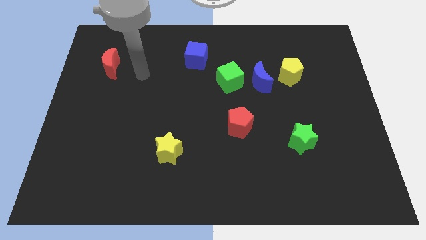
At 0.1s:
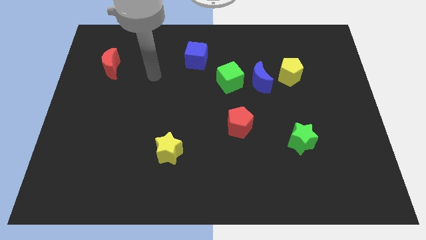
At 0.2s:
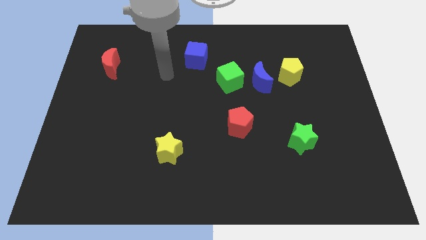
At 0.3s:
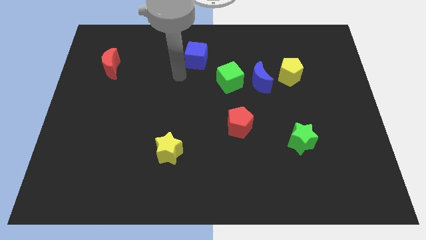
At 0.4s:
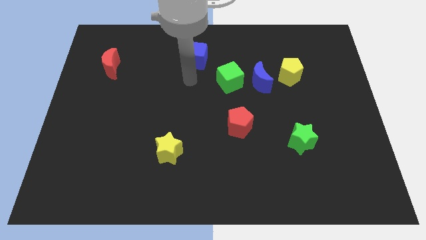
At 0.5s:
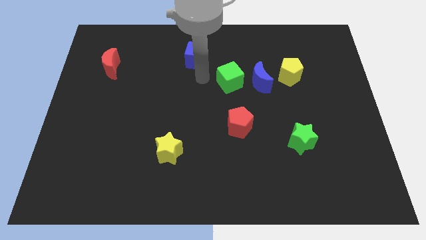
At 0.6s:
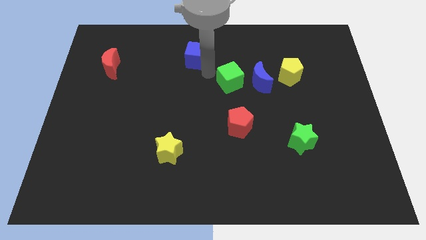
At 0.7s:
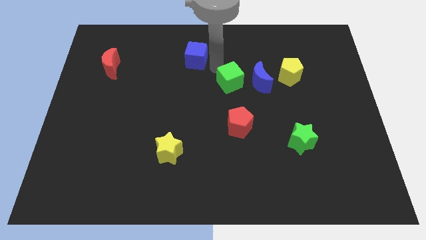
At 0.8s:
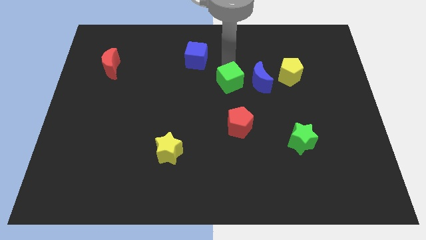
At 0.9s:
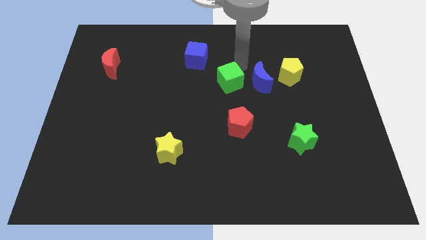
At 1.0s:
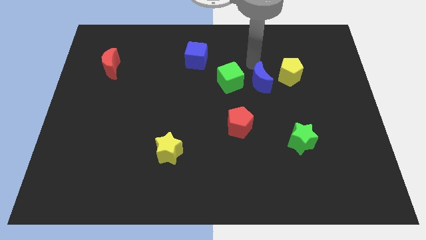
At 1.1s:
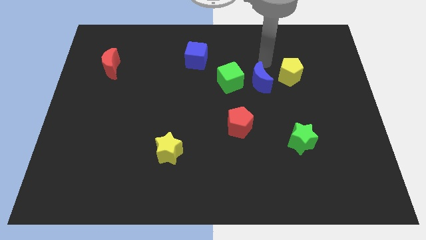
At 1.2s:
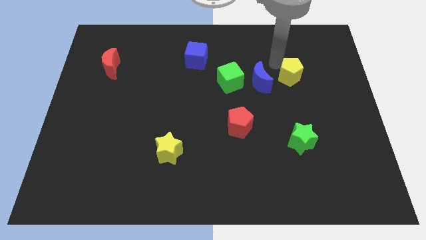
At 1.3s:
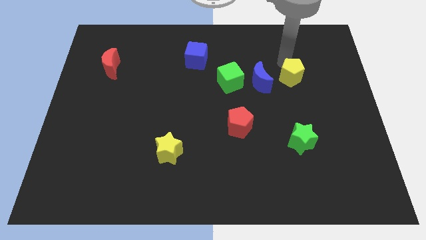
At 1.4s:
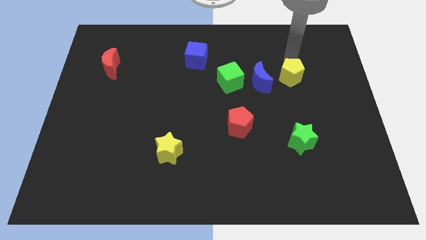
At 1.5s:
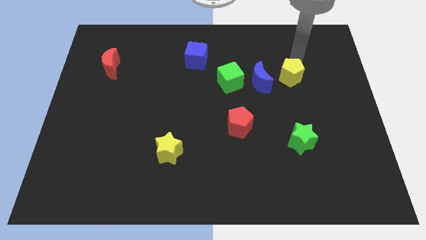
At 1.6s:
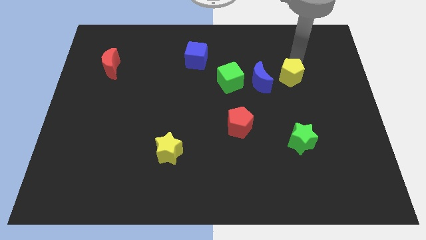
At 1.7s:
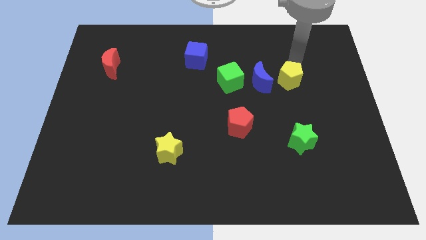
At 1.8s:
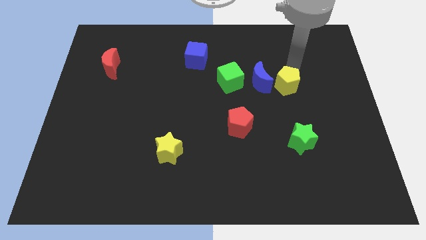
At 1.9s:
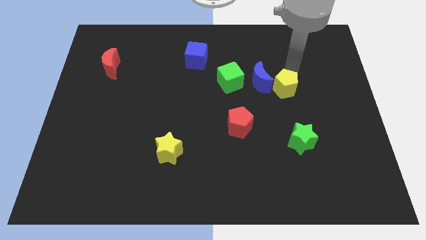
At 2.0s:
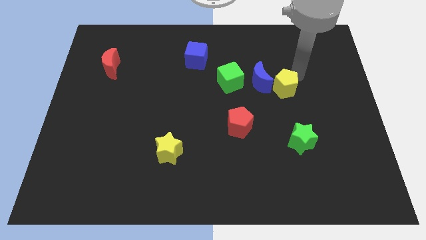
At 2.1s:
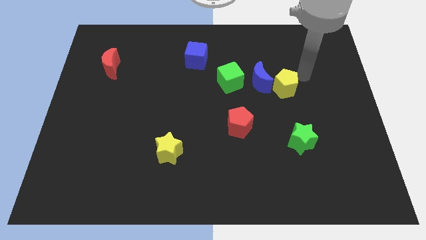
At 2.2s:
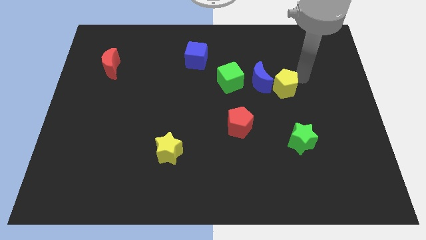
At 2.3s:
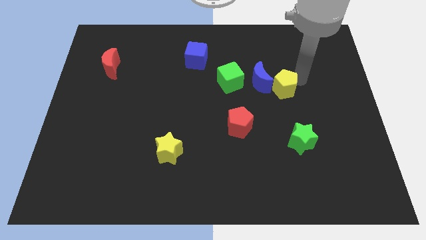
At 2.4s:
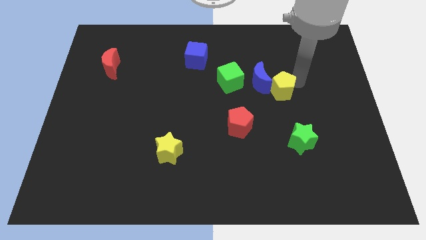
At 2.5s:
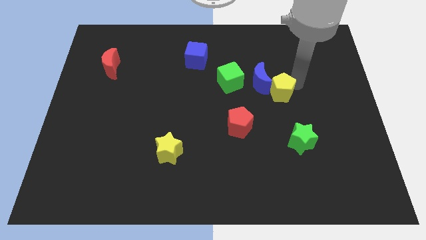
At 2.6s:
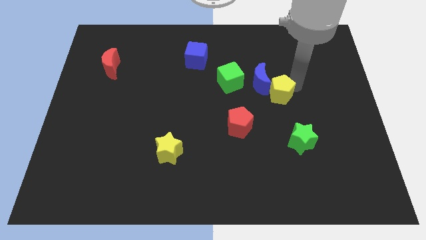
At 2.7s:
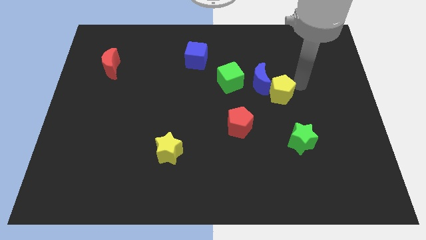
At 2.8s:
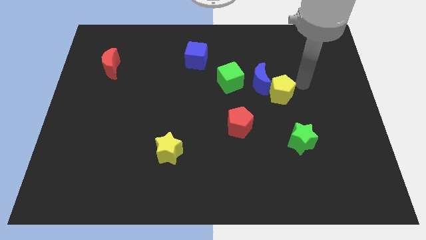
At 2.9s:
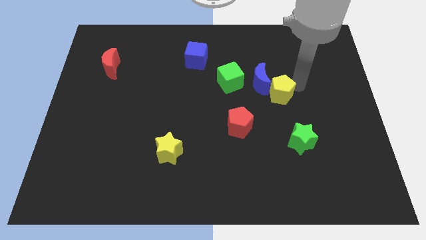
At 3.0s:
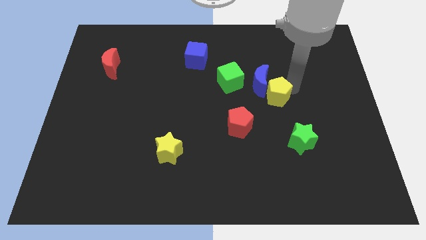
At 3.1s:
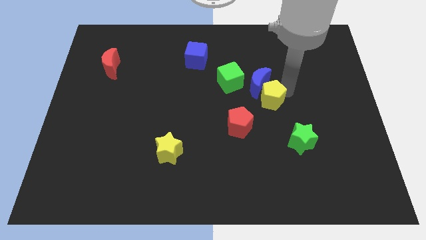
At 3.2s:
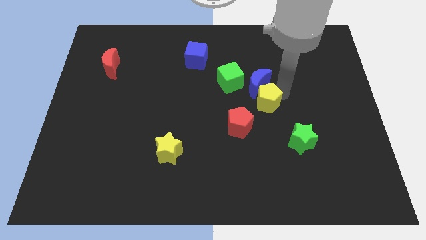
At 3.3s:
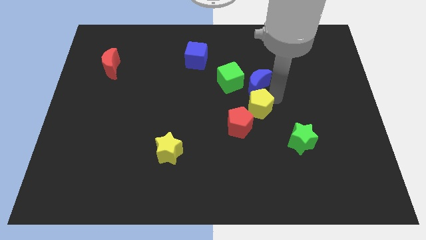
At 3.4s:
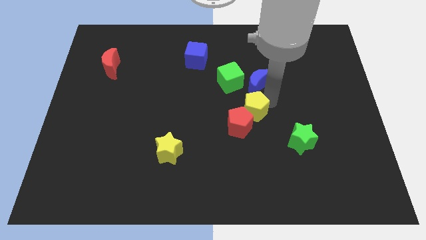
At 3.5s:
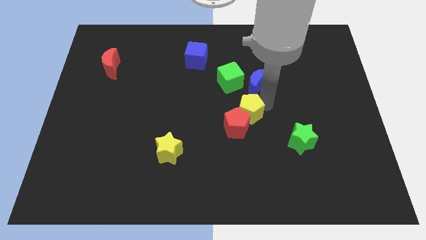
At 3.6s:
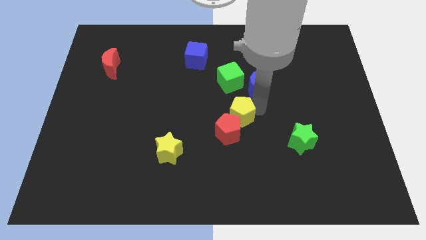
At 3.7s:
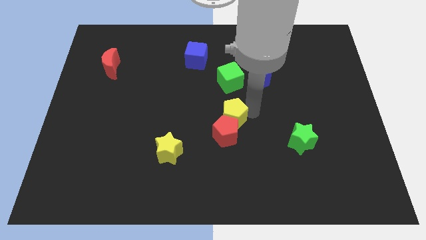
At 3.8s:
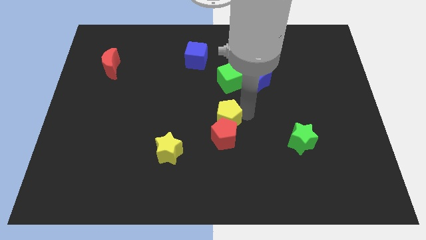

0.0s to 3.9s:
move the yellow pentagon down and then left

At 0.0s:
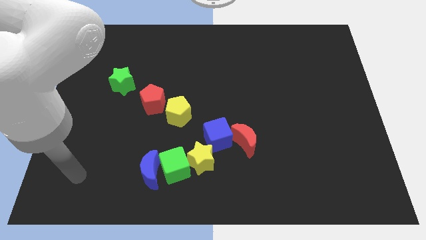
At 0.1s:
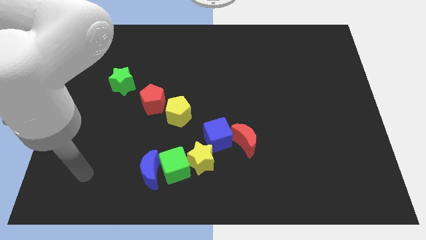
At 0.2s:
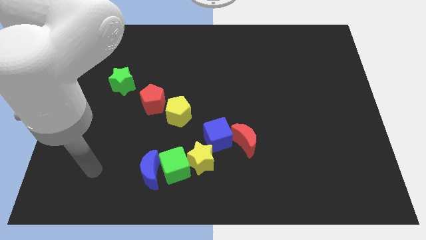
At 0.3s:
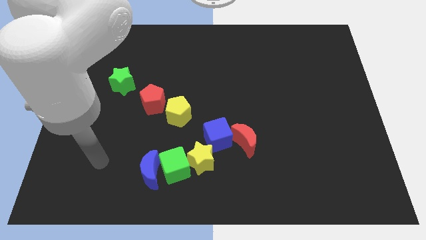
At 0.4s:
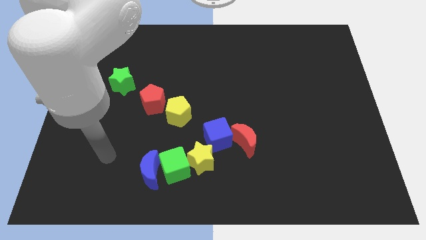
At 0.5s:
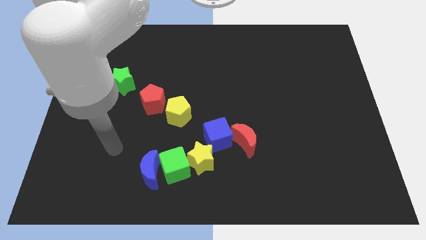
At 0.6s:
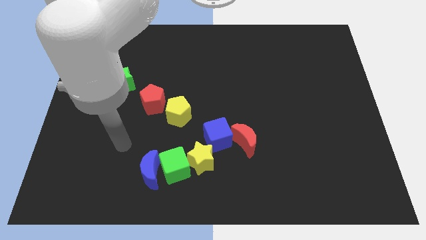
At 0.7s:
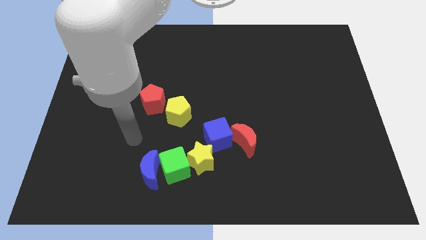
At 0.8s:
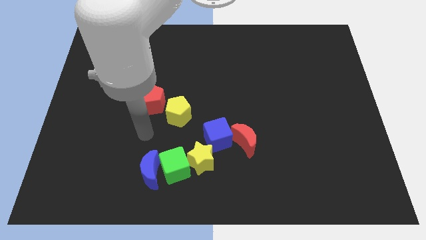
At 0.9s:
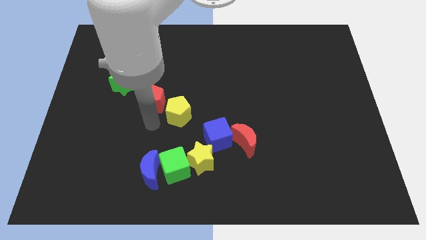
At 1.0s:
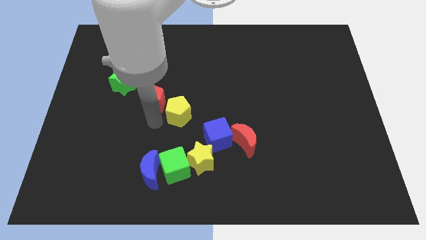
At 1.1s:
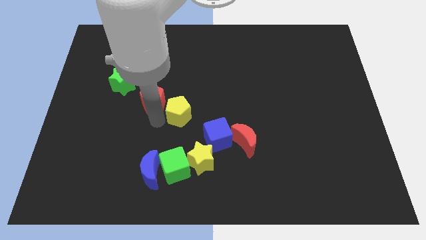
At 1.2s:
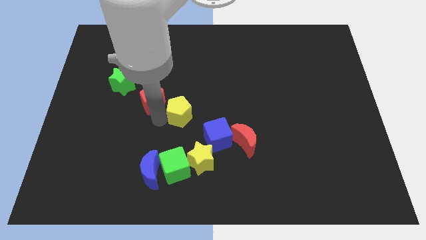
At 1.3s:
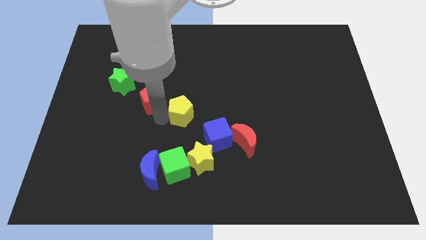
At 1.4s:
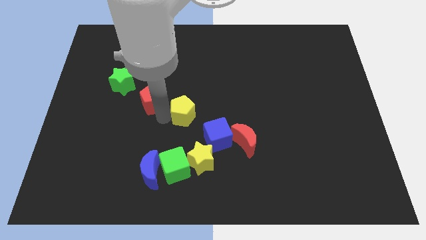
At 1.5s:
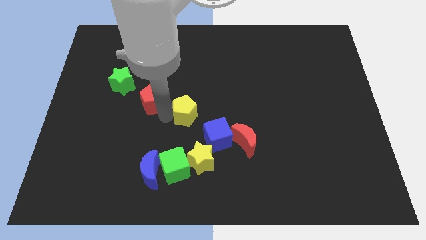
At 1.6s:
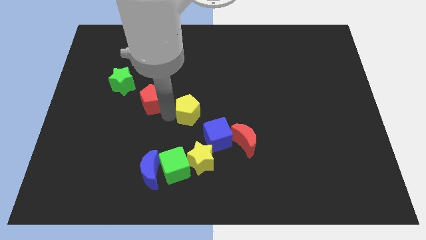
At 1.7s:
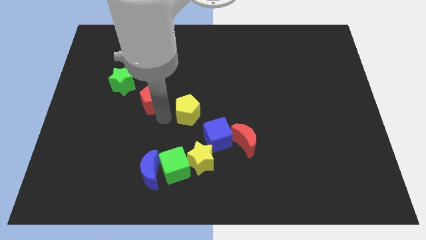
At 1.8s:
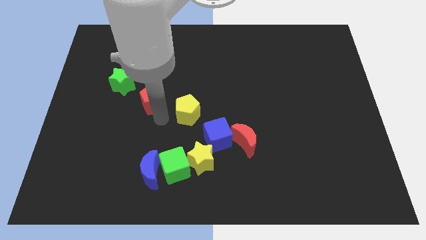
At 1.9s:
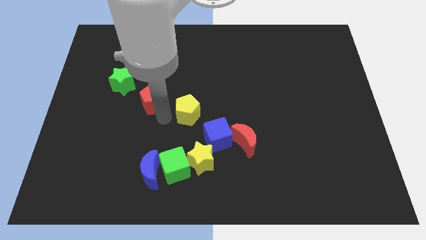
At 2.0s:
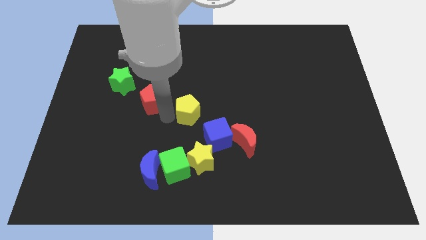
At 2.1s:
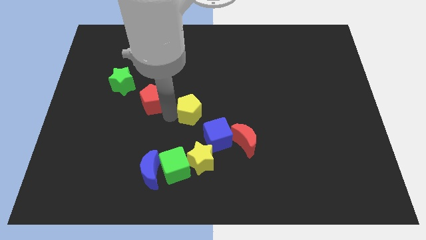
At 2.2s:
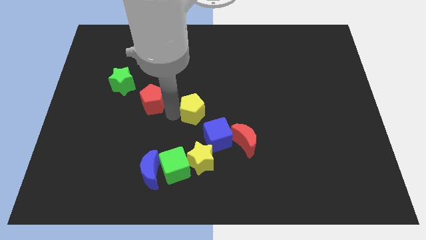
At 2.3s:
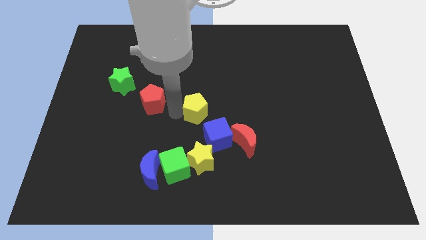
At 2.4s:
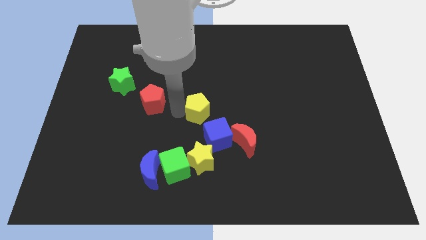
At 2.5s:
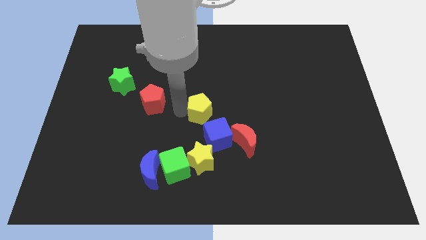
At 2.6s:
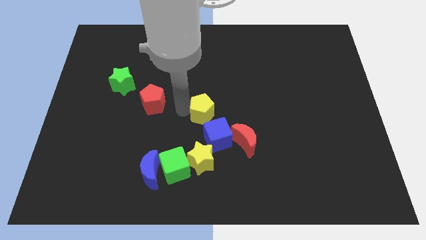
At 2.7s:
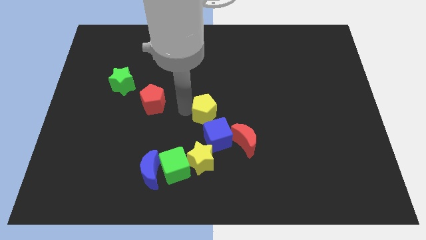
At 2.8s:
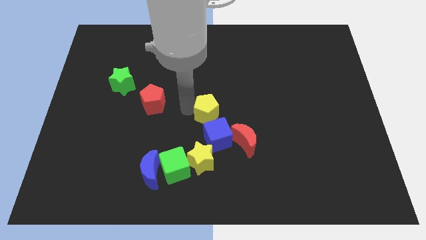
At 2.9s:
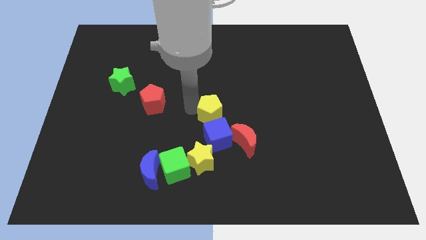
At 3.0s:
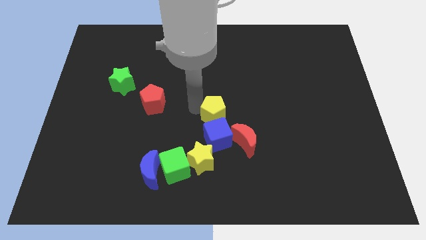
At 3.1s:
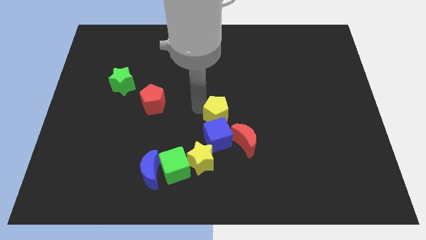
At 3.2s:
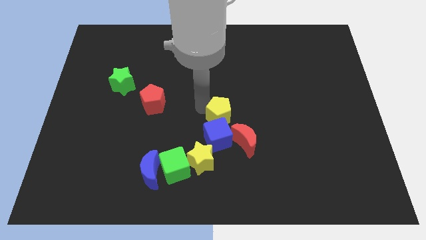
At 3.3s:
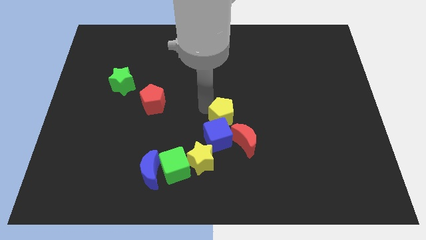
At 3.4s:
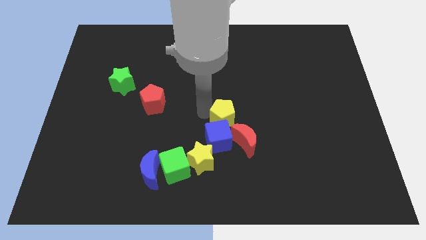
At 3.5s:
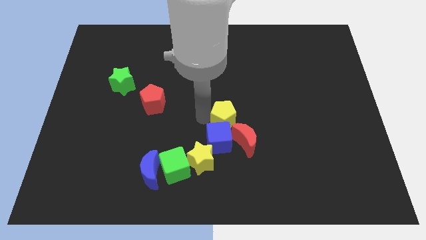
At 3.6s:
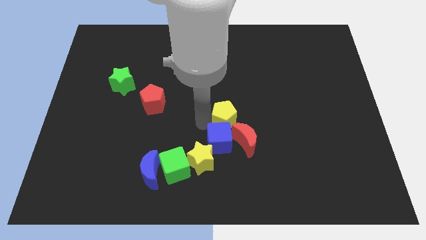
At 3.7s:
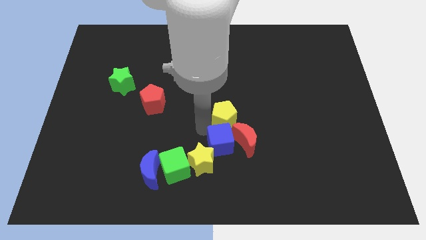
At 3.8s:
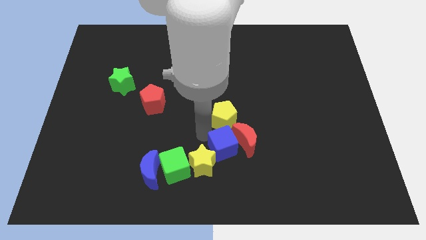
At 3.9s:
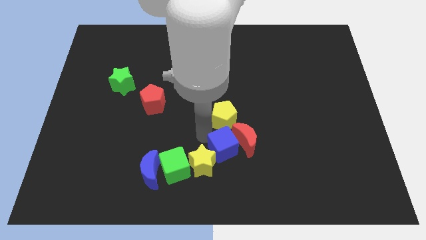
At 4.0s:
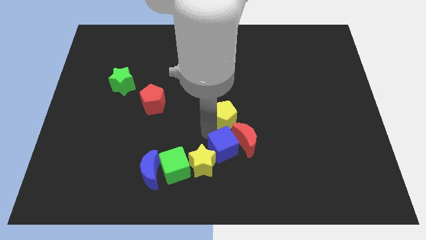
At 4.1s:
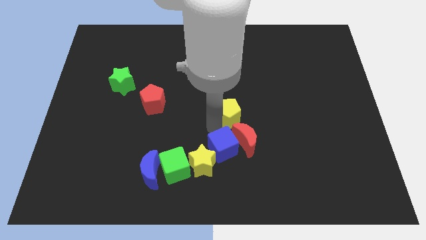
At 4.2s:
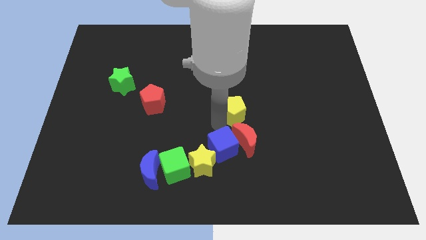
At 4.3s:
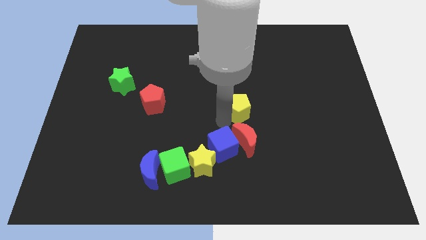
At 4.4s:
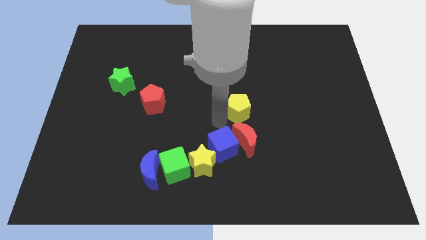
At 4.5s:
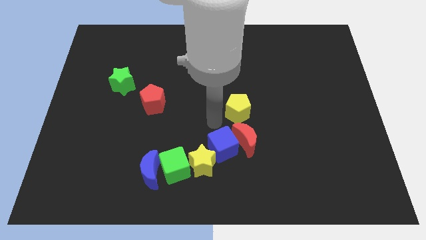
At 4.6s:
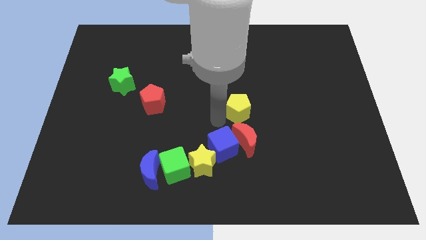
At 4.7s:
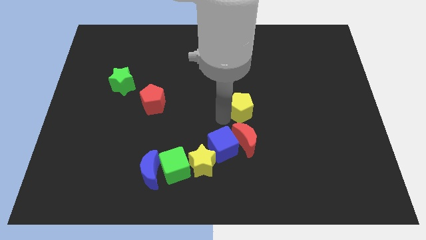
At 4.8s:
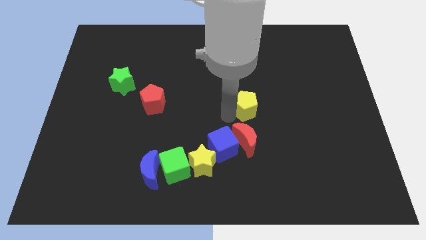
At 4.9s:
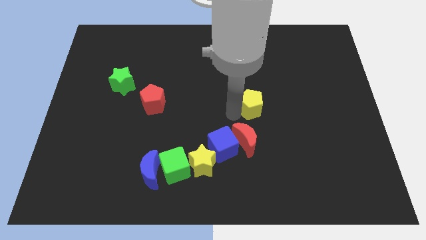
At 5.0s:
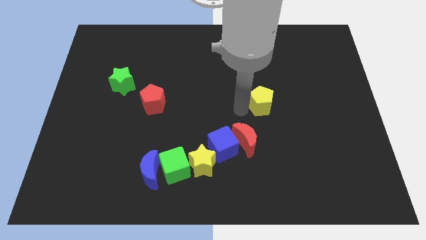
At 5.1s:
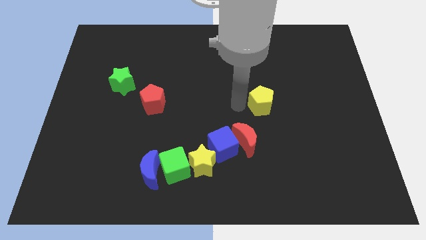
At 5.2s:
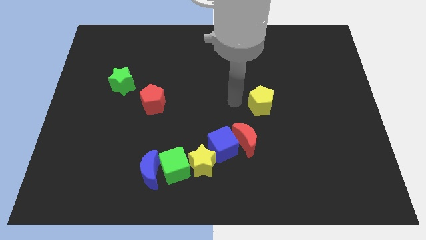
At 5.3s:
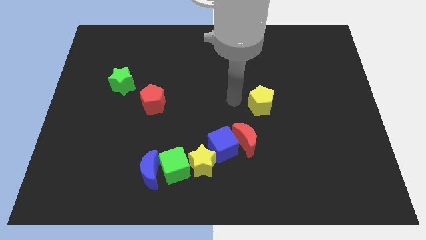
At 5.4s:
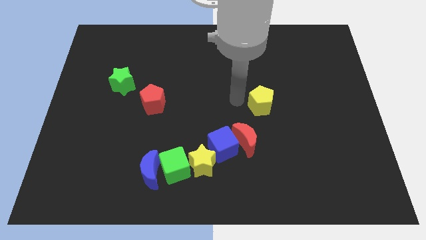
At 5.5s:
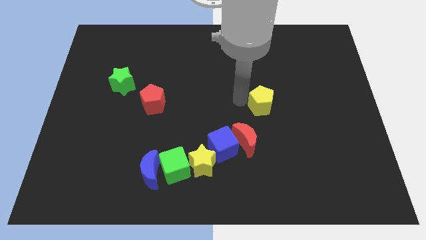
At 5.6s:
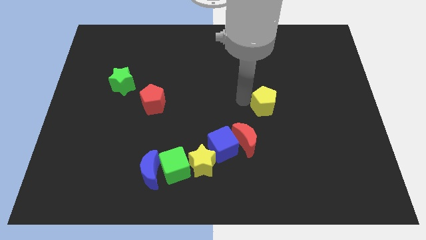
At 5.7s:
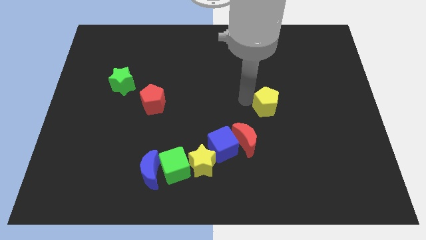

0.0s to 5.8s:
slide the yellow pentagon right
